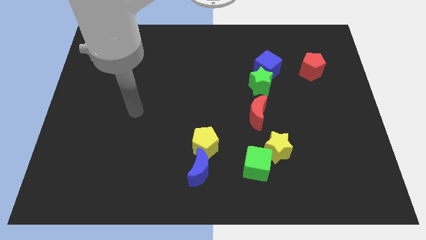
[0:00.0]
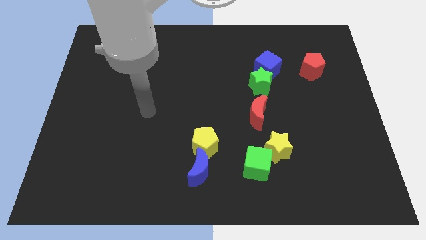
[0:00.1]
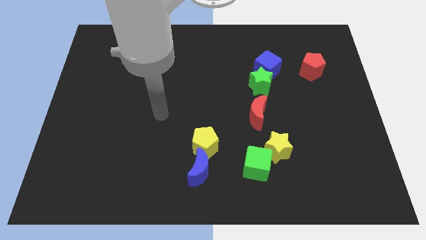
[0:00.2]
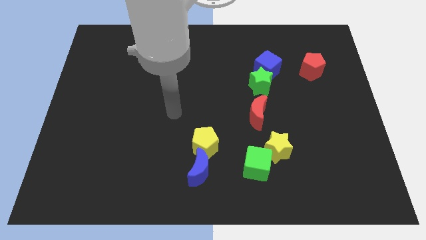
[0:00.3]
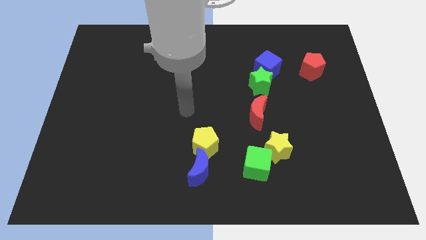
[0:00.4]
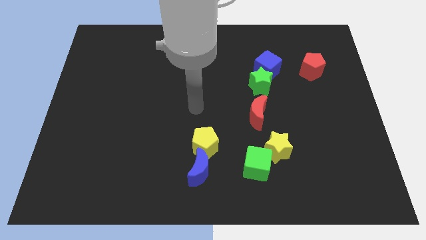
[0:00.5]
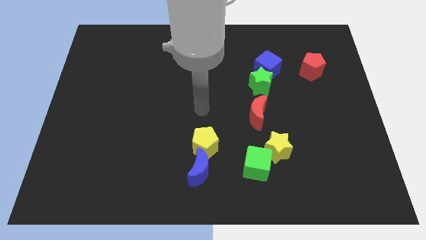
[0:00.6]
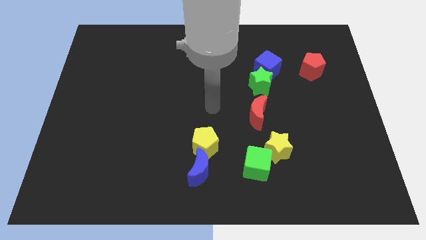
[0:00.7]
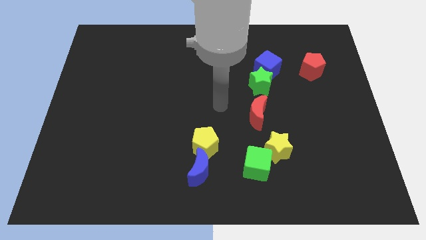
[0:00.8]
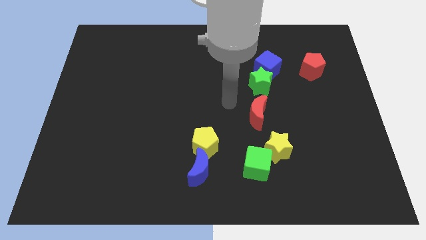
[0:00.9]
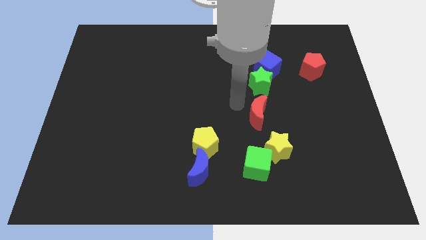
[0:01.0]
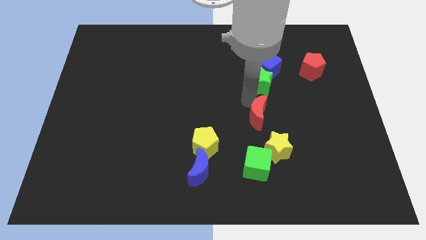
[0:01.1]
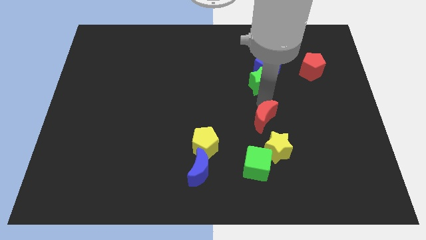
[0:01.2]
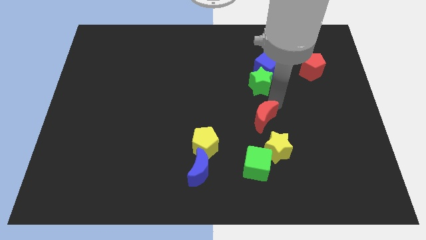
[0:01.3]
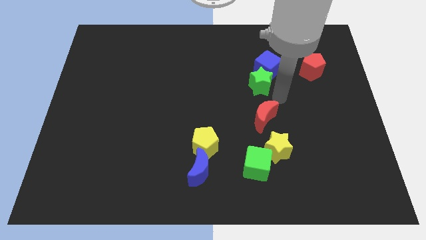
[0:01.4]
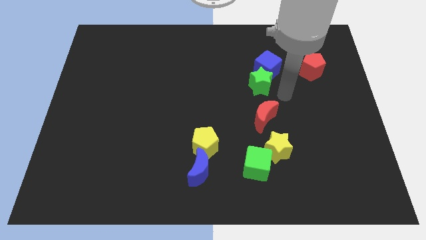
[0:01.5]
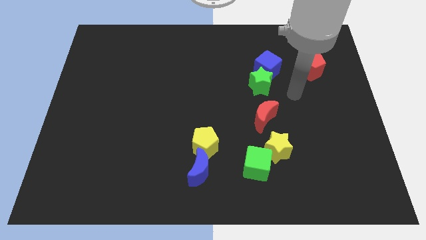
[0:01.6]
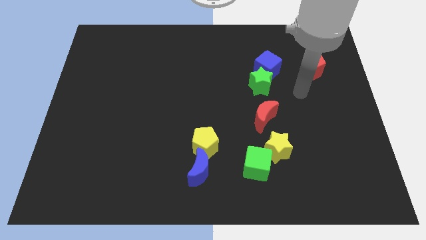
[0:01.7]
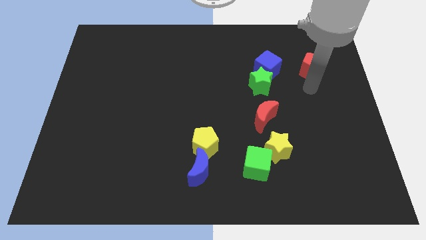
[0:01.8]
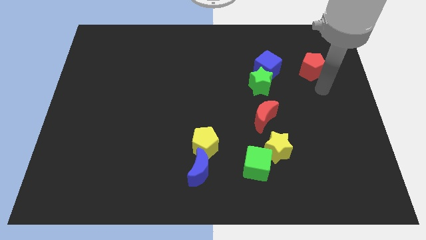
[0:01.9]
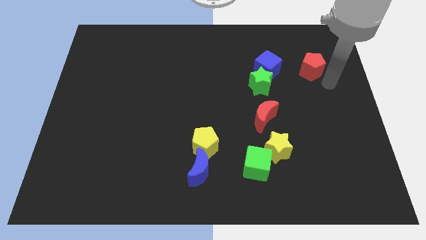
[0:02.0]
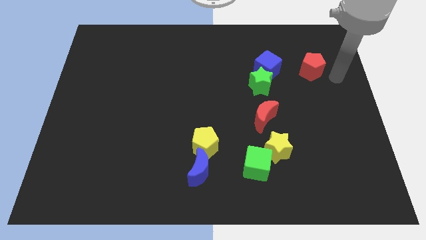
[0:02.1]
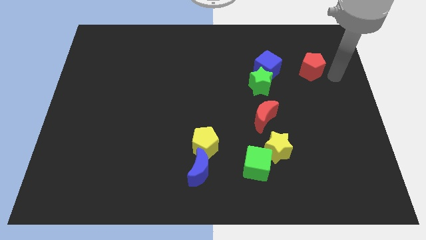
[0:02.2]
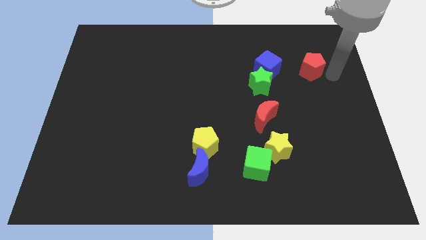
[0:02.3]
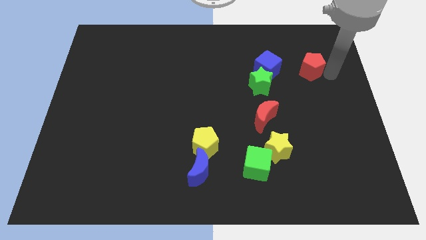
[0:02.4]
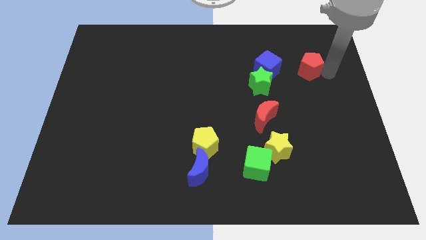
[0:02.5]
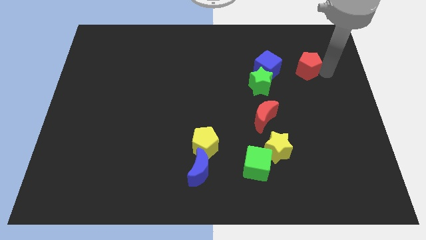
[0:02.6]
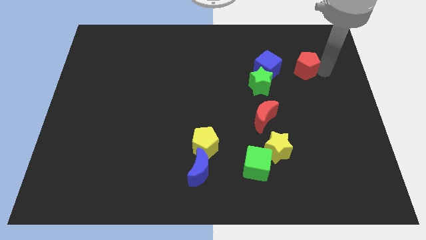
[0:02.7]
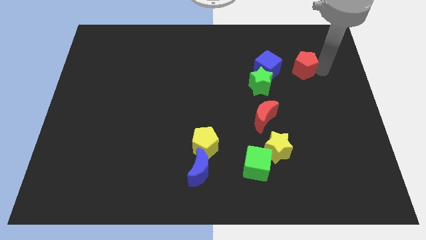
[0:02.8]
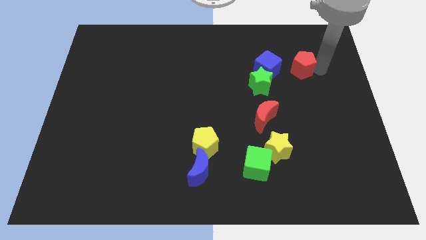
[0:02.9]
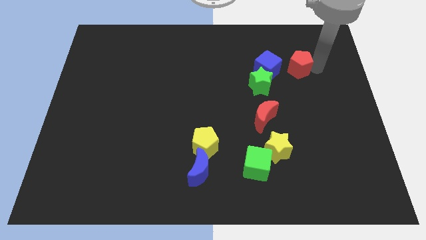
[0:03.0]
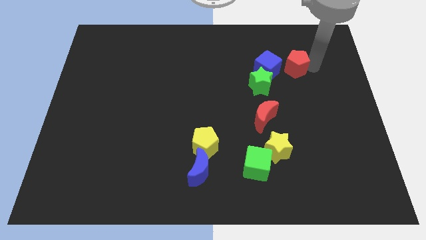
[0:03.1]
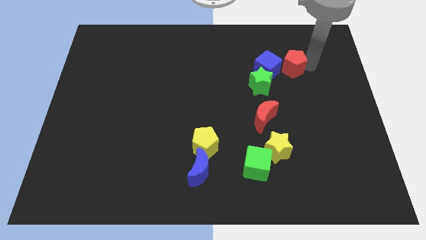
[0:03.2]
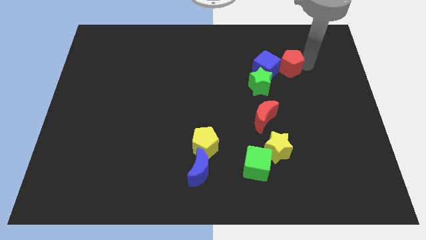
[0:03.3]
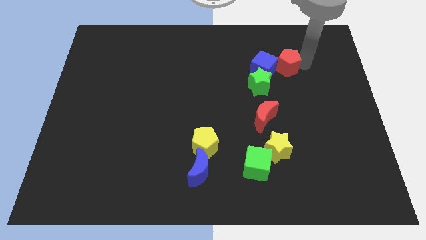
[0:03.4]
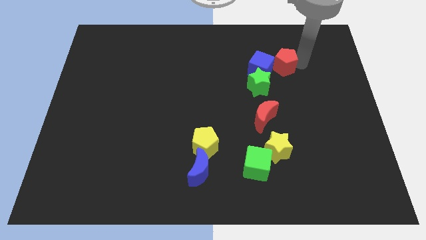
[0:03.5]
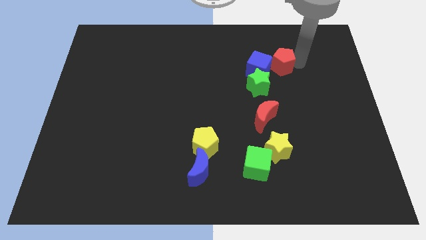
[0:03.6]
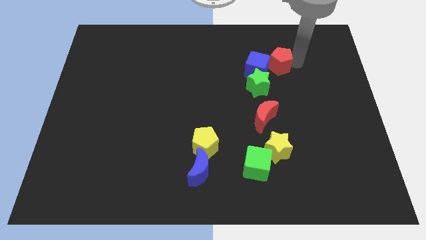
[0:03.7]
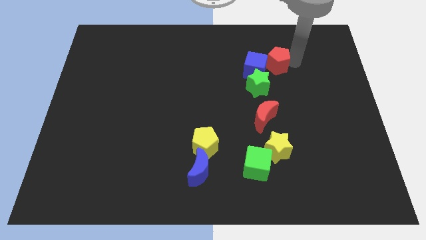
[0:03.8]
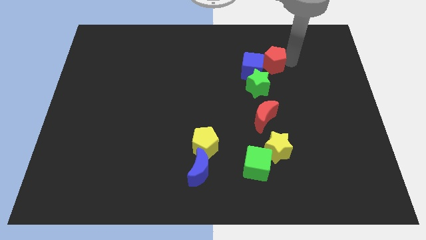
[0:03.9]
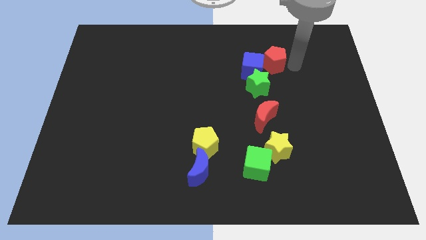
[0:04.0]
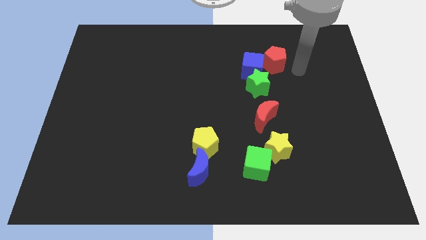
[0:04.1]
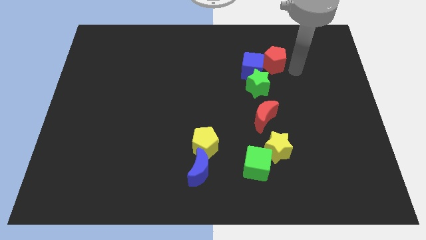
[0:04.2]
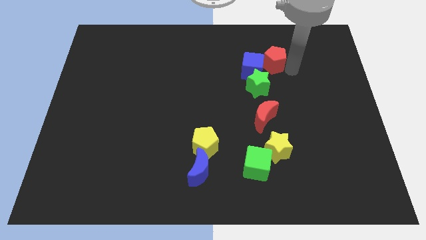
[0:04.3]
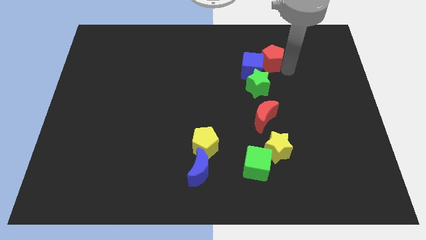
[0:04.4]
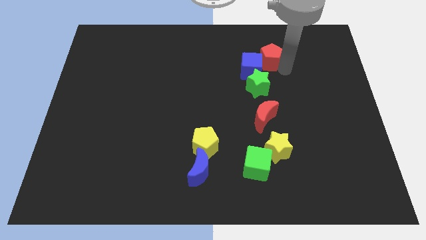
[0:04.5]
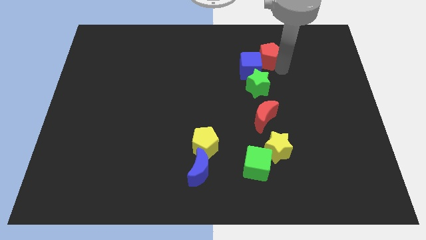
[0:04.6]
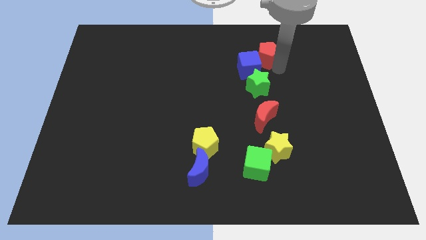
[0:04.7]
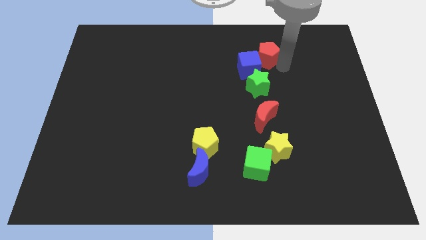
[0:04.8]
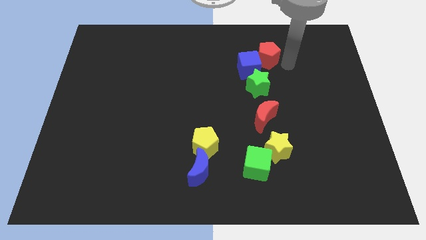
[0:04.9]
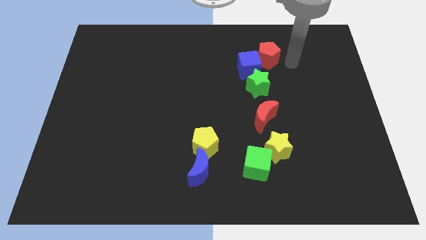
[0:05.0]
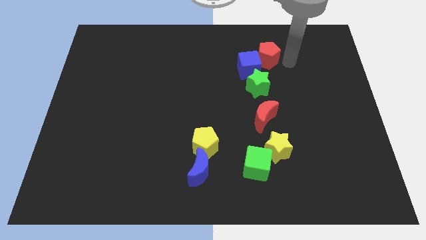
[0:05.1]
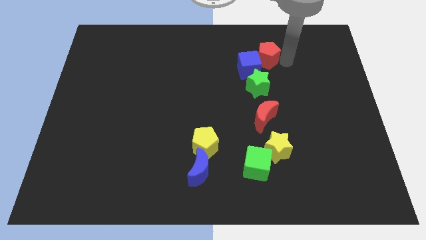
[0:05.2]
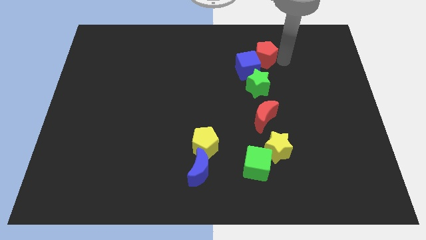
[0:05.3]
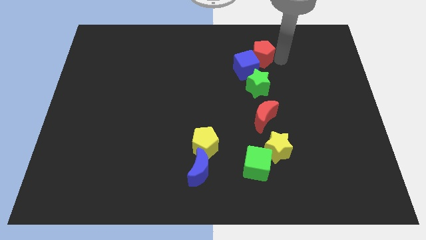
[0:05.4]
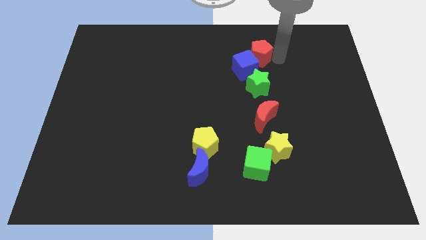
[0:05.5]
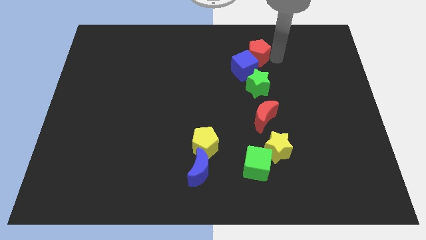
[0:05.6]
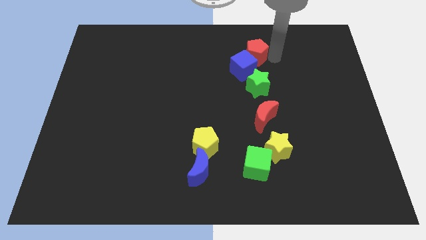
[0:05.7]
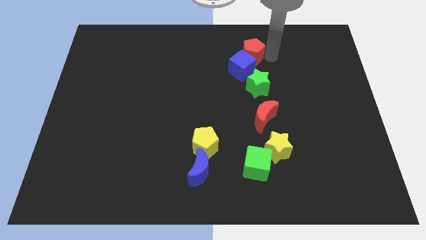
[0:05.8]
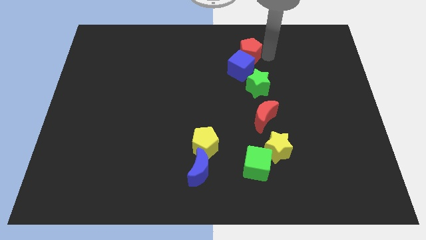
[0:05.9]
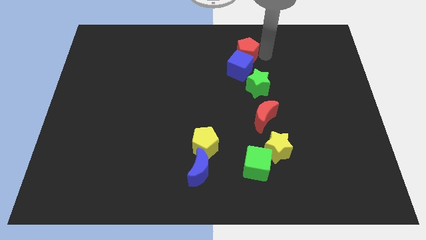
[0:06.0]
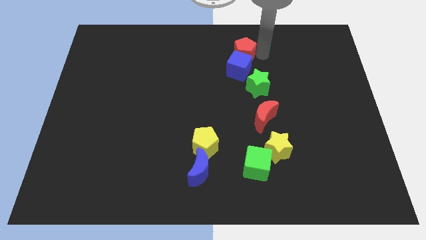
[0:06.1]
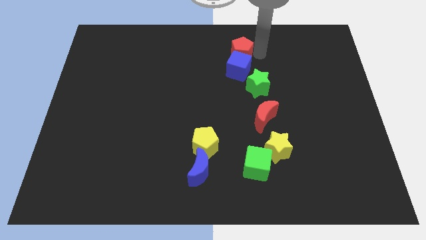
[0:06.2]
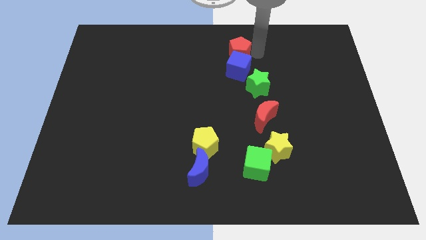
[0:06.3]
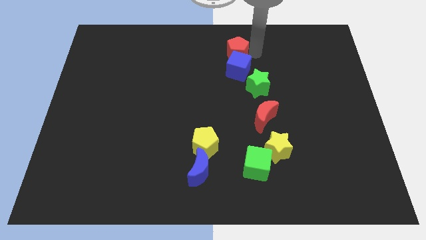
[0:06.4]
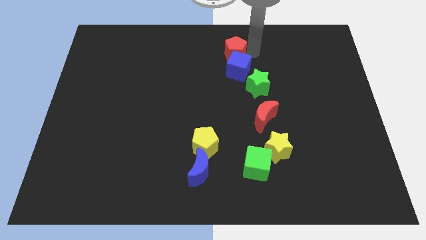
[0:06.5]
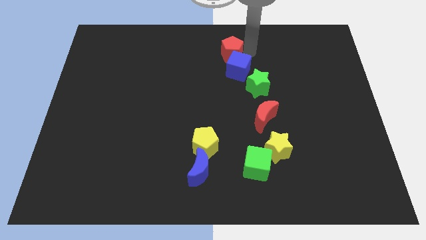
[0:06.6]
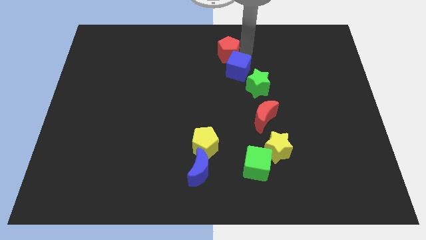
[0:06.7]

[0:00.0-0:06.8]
move the red pentagon left

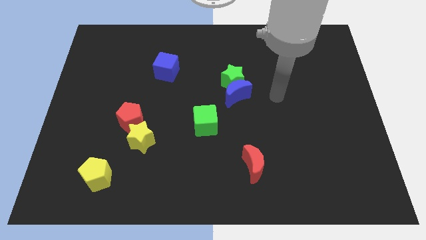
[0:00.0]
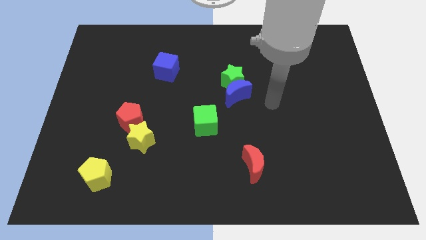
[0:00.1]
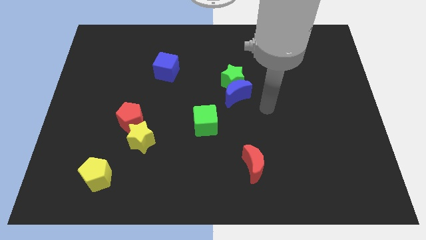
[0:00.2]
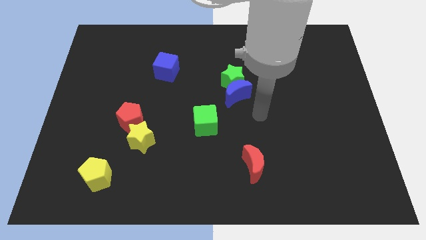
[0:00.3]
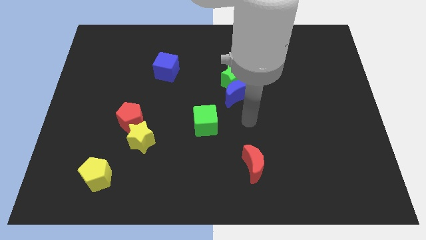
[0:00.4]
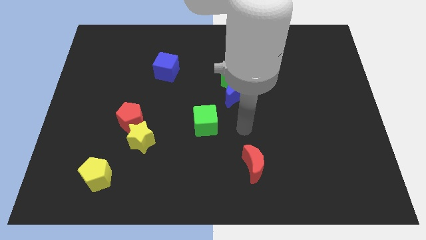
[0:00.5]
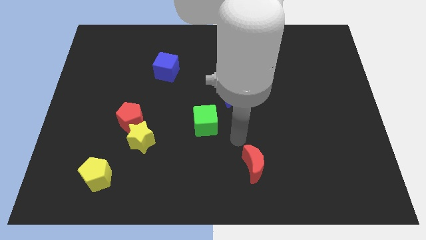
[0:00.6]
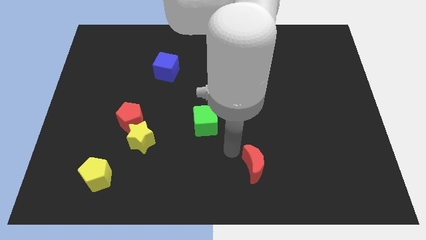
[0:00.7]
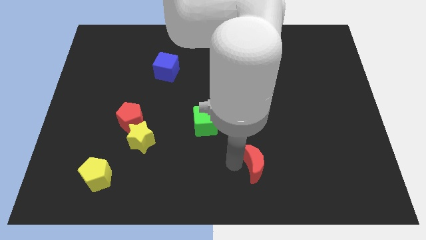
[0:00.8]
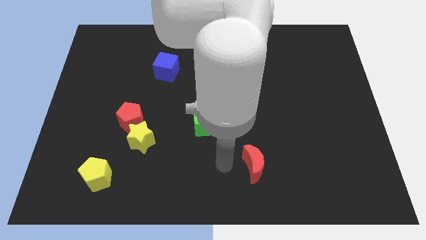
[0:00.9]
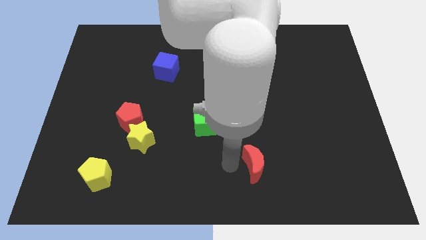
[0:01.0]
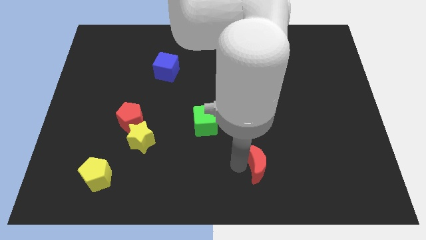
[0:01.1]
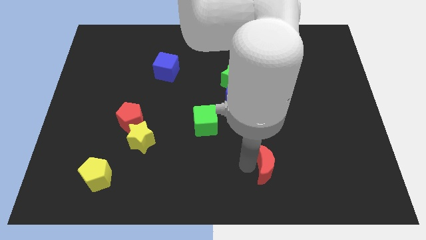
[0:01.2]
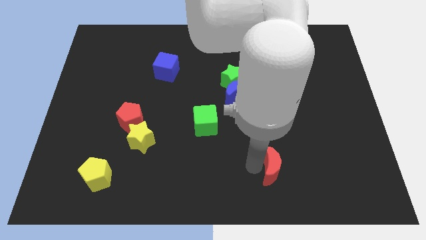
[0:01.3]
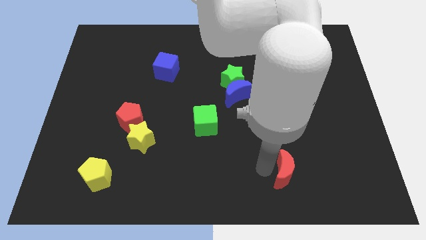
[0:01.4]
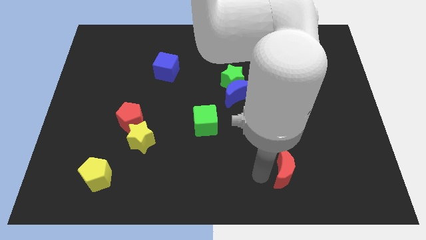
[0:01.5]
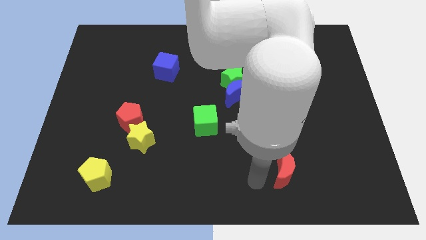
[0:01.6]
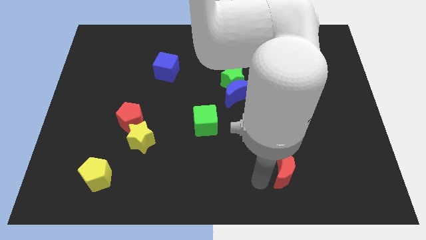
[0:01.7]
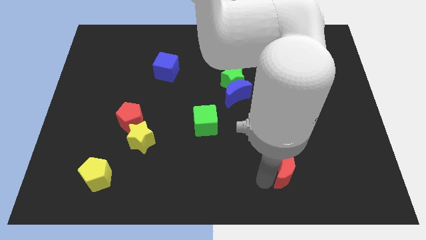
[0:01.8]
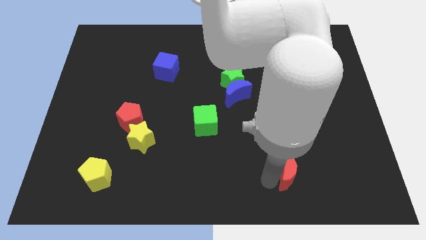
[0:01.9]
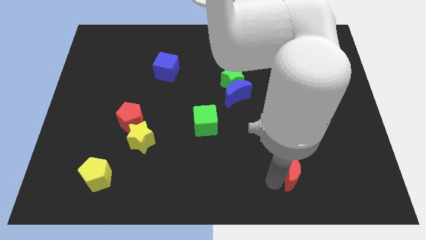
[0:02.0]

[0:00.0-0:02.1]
slide the red moon right a little bit
